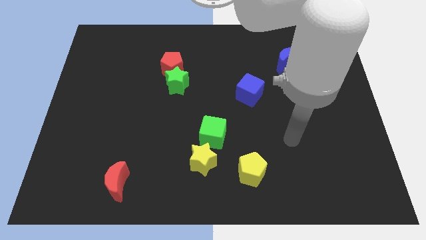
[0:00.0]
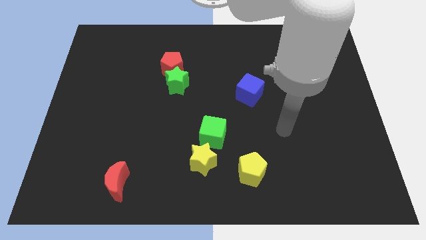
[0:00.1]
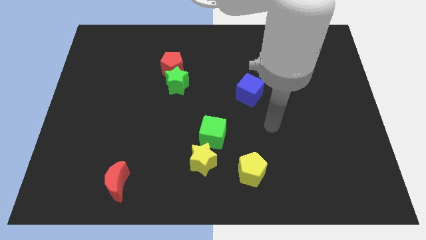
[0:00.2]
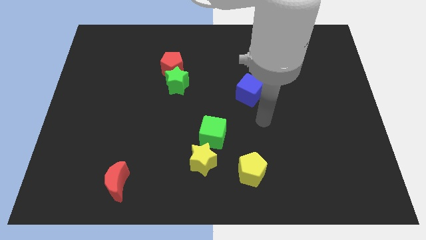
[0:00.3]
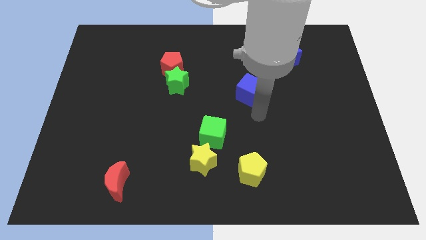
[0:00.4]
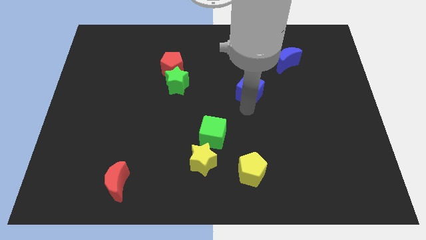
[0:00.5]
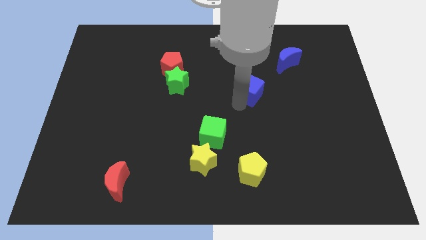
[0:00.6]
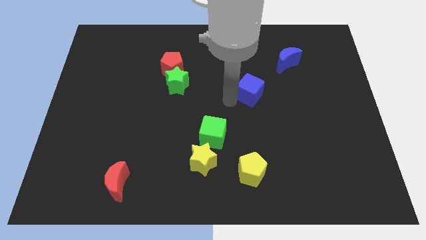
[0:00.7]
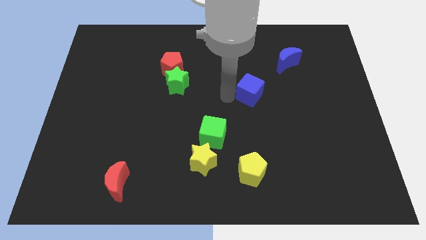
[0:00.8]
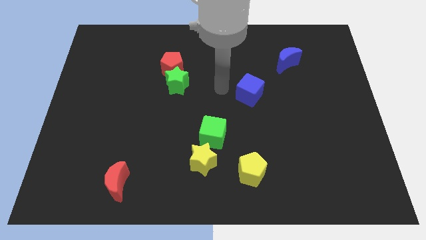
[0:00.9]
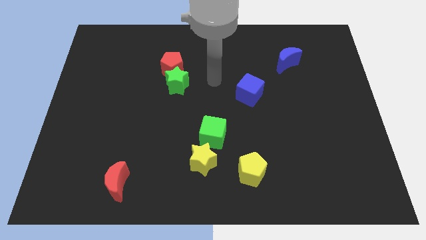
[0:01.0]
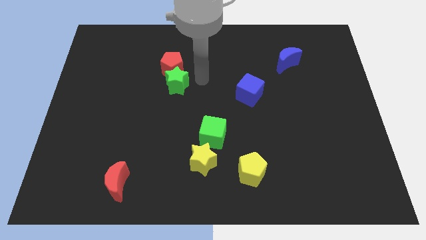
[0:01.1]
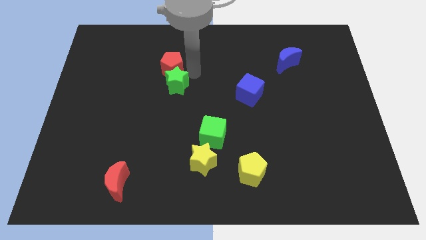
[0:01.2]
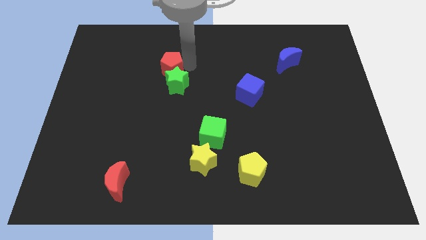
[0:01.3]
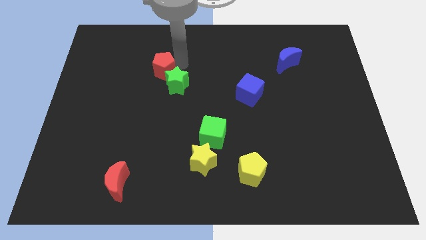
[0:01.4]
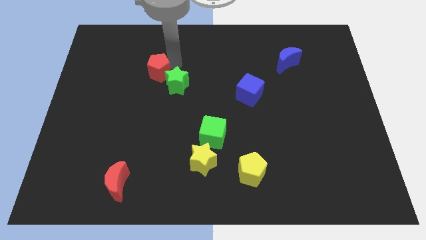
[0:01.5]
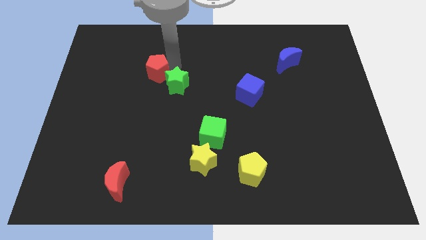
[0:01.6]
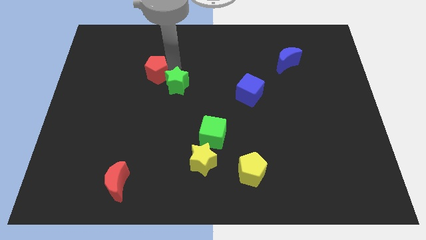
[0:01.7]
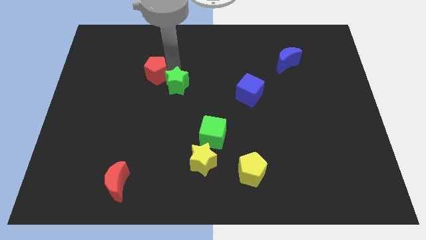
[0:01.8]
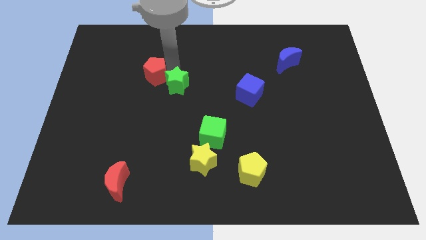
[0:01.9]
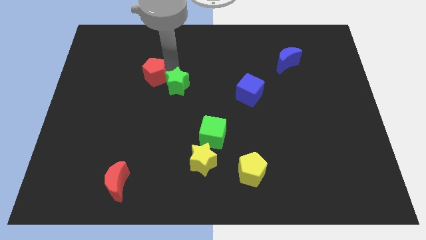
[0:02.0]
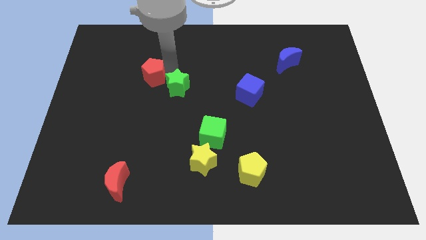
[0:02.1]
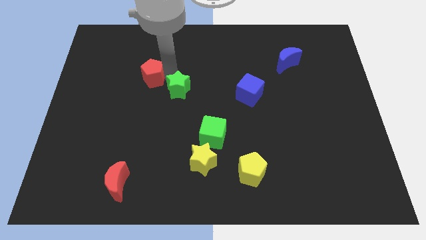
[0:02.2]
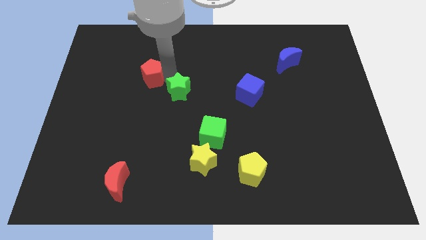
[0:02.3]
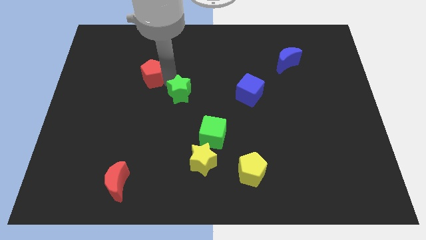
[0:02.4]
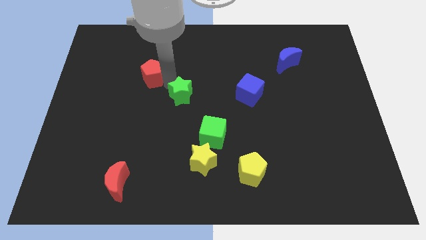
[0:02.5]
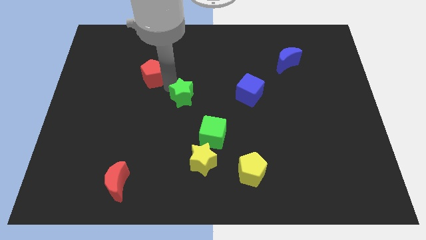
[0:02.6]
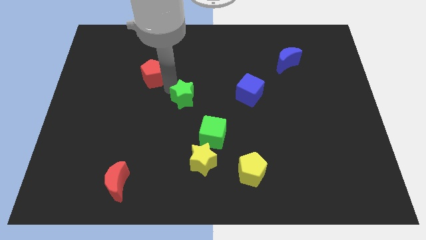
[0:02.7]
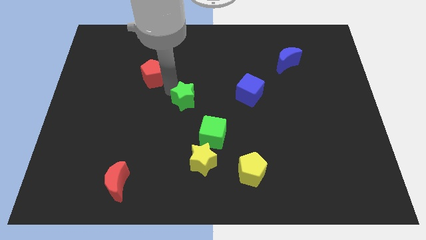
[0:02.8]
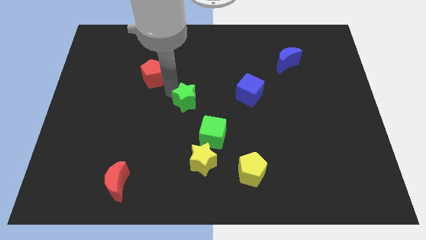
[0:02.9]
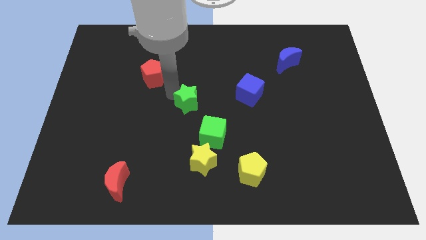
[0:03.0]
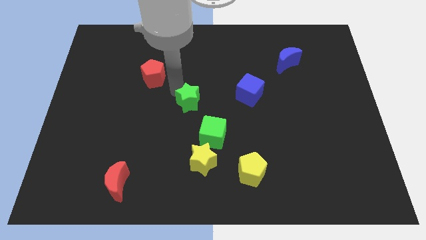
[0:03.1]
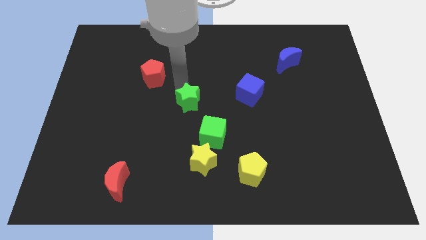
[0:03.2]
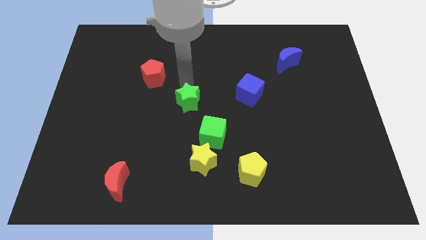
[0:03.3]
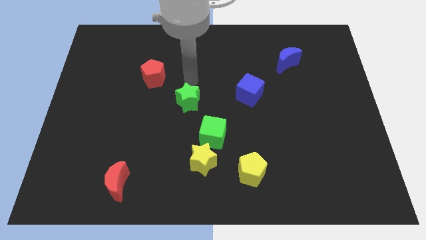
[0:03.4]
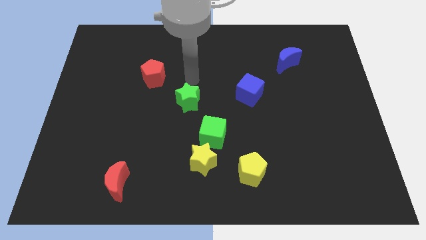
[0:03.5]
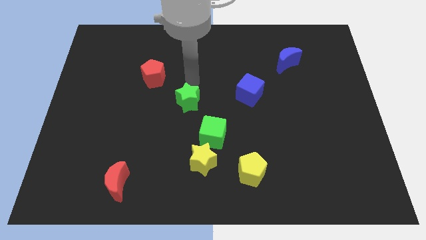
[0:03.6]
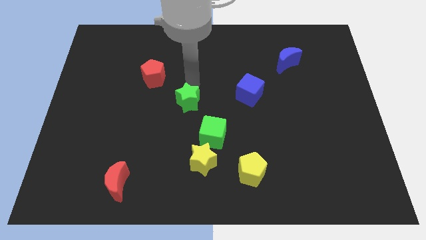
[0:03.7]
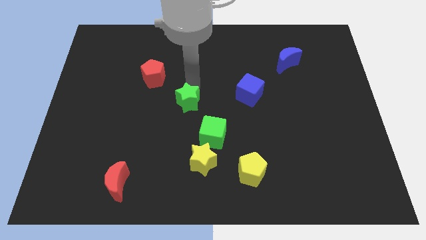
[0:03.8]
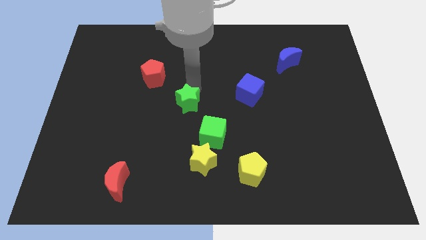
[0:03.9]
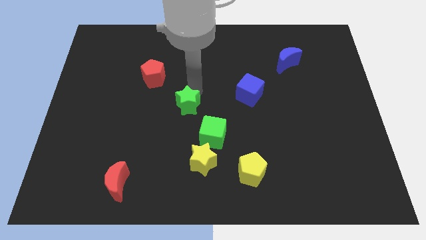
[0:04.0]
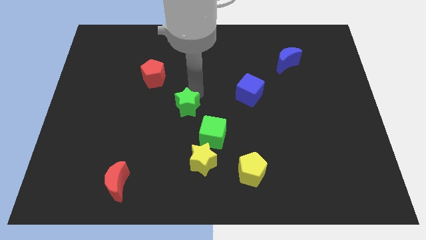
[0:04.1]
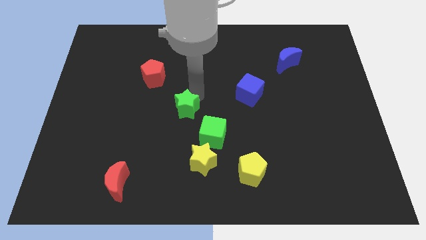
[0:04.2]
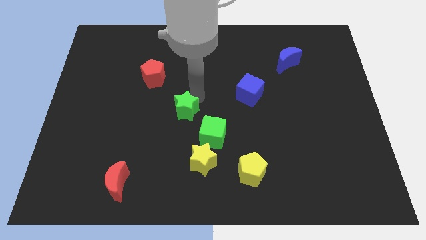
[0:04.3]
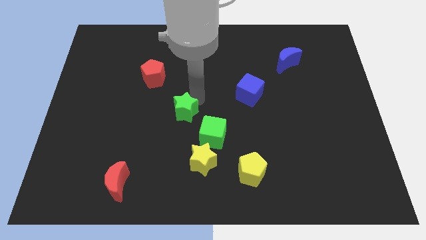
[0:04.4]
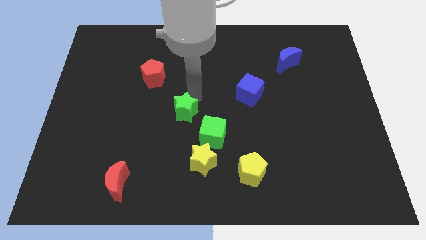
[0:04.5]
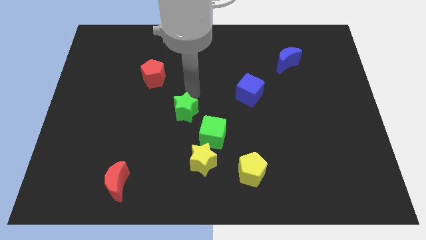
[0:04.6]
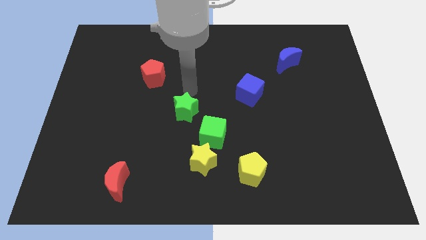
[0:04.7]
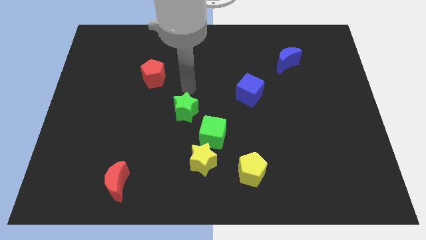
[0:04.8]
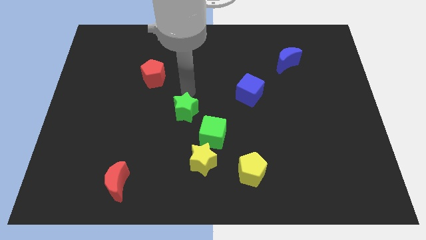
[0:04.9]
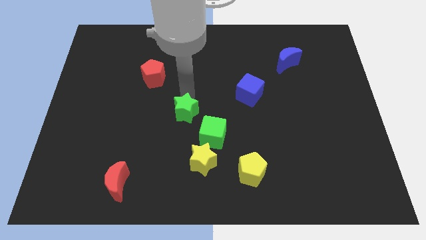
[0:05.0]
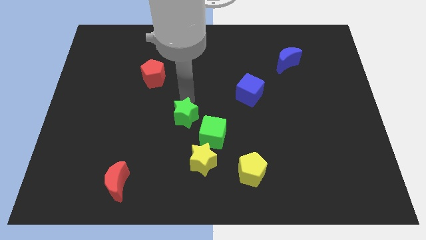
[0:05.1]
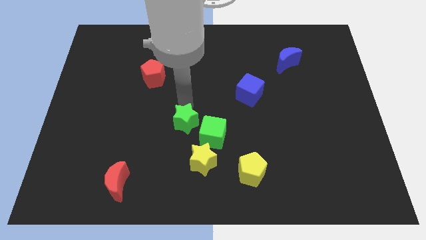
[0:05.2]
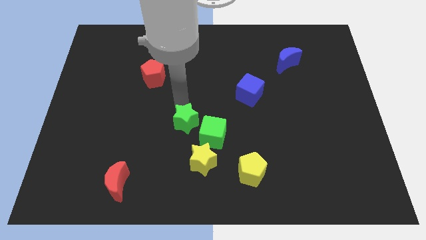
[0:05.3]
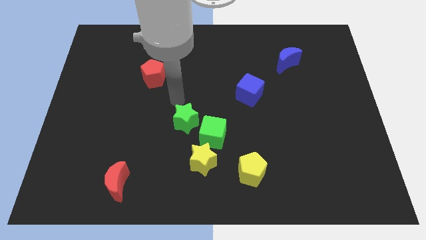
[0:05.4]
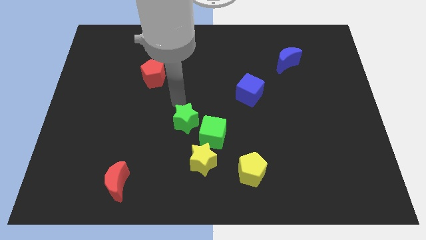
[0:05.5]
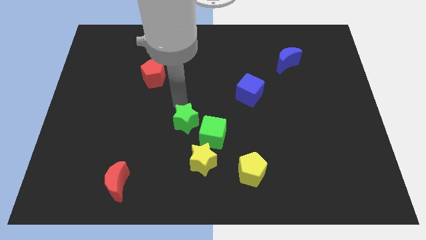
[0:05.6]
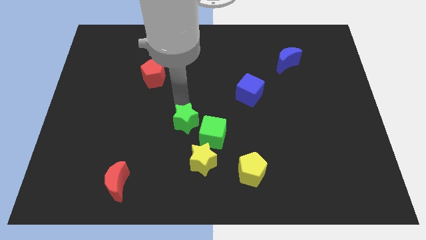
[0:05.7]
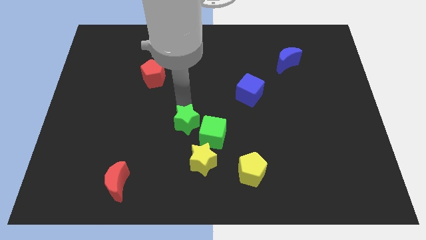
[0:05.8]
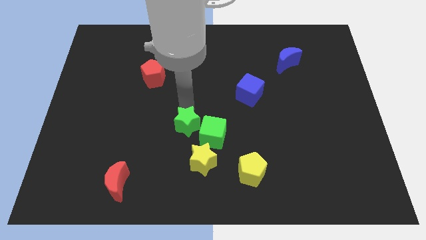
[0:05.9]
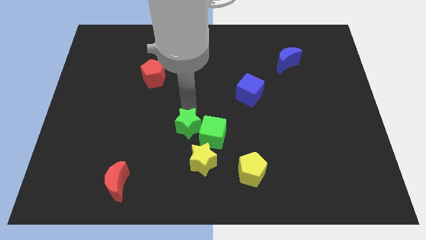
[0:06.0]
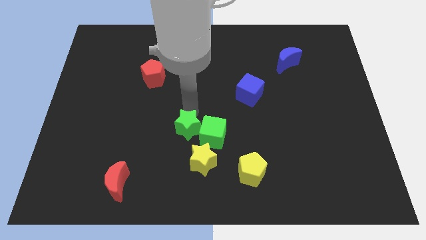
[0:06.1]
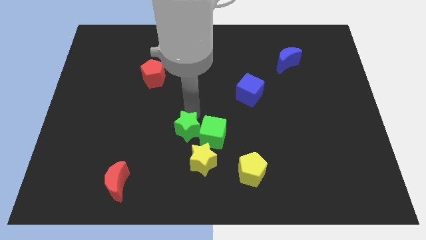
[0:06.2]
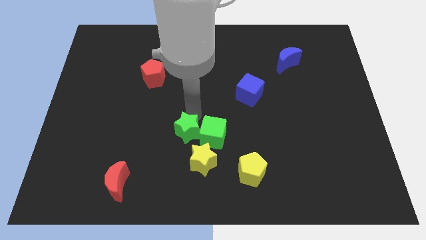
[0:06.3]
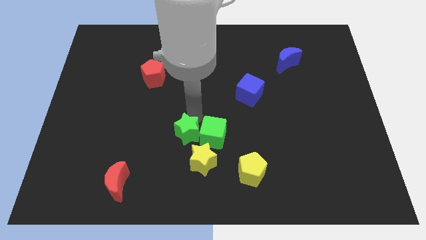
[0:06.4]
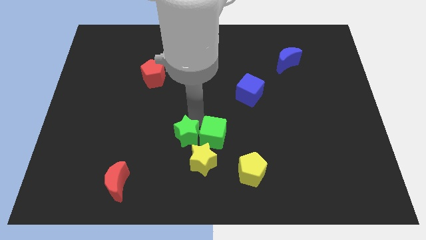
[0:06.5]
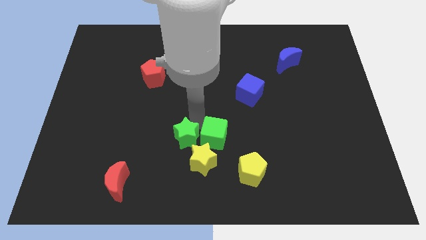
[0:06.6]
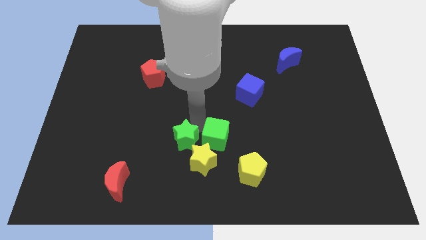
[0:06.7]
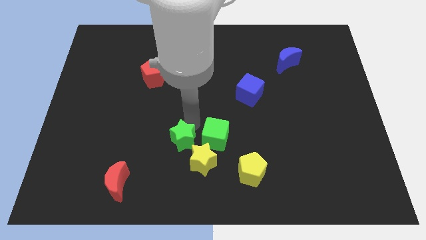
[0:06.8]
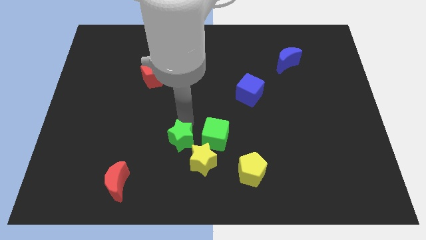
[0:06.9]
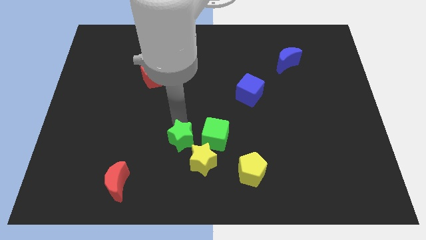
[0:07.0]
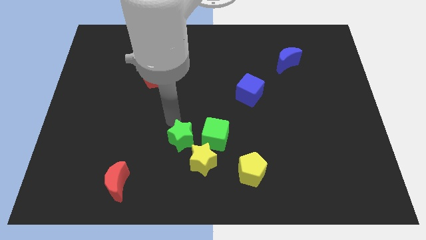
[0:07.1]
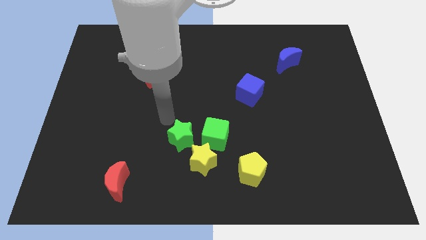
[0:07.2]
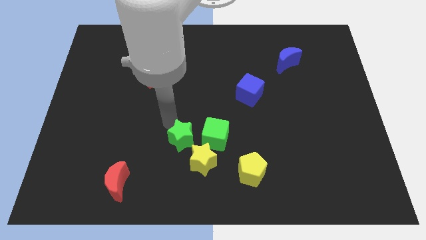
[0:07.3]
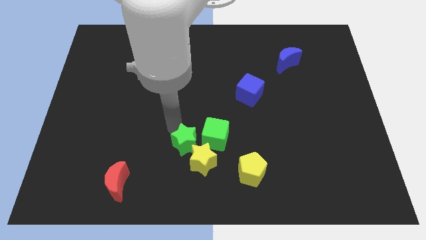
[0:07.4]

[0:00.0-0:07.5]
put the green star to the yellow star

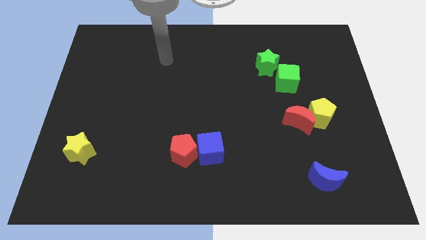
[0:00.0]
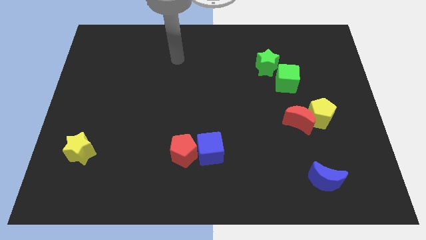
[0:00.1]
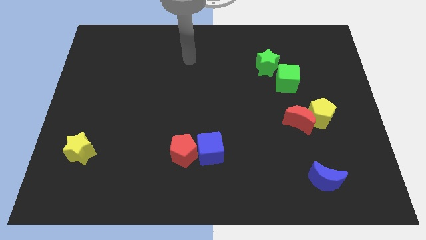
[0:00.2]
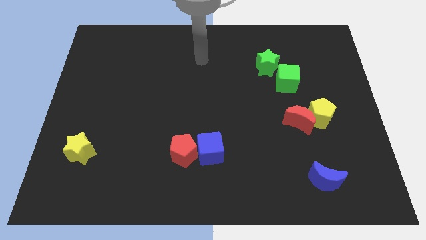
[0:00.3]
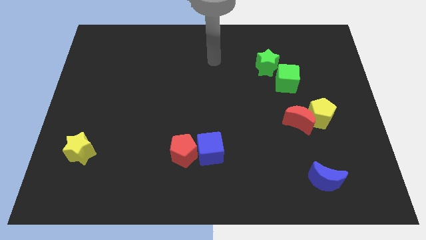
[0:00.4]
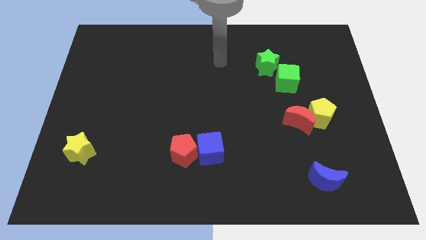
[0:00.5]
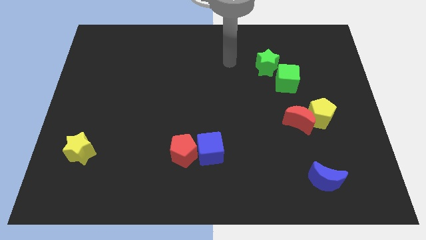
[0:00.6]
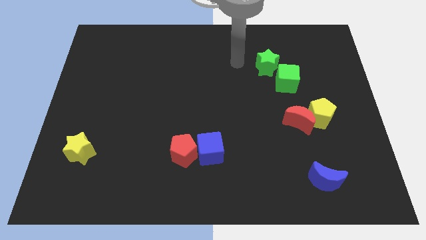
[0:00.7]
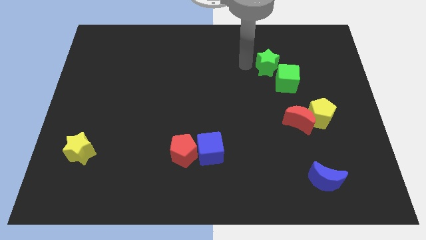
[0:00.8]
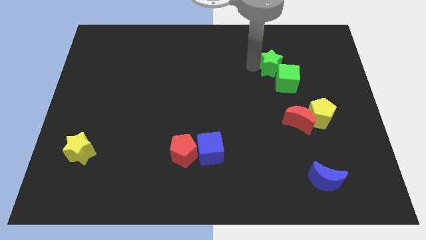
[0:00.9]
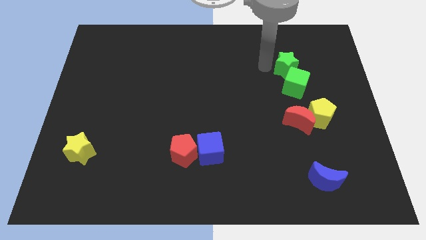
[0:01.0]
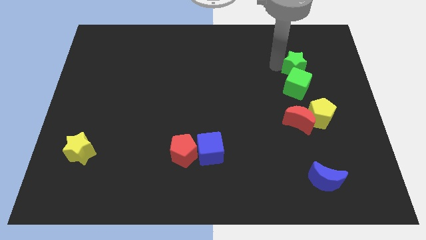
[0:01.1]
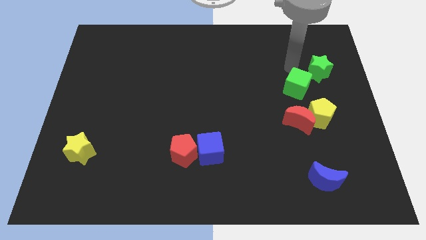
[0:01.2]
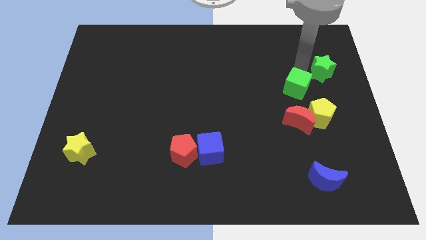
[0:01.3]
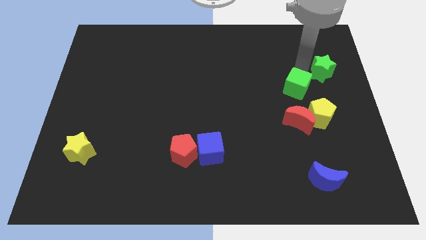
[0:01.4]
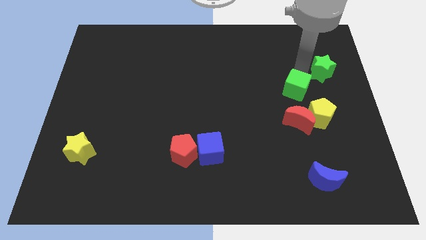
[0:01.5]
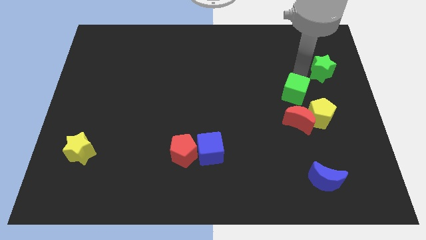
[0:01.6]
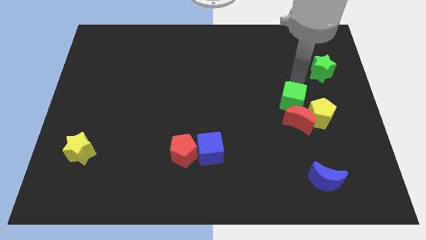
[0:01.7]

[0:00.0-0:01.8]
push the green cube towards the red moon
